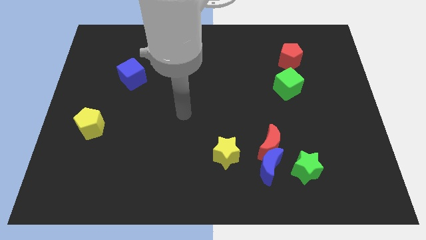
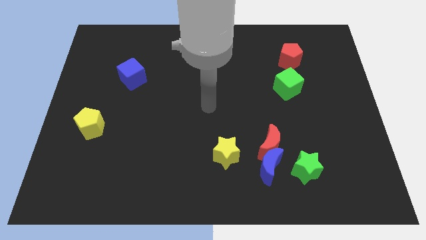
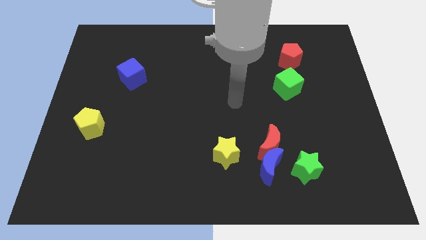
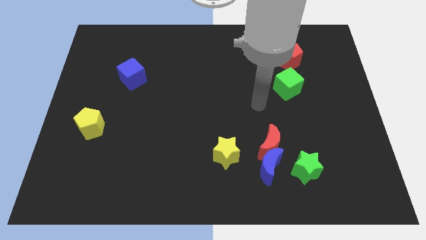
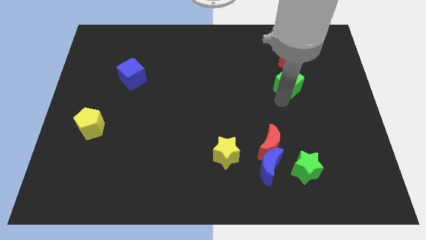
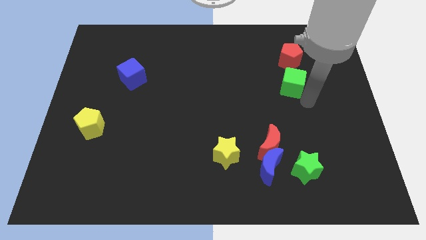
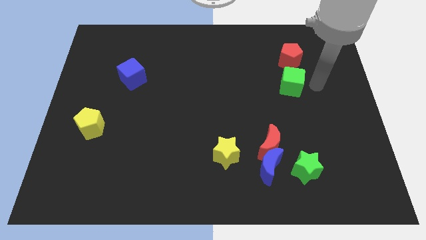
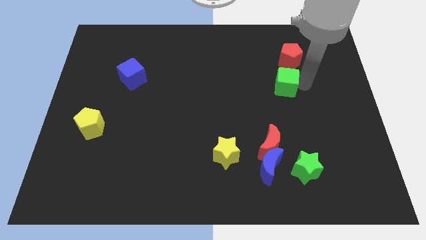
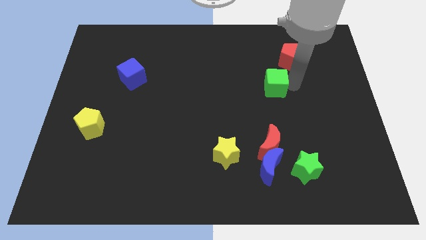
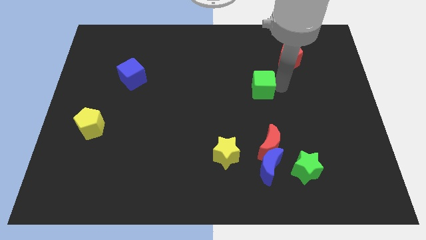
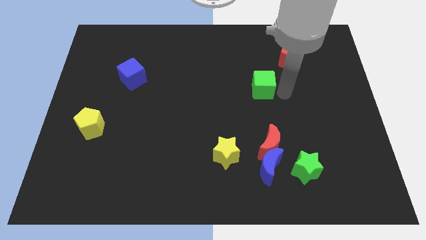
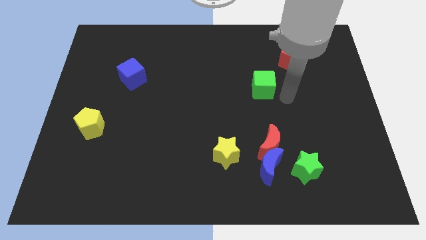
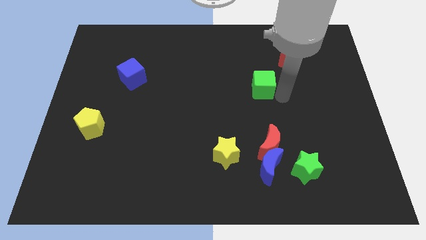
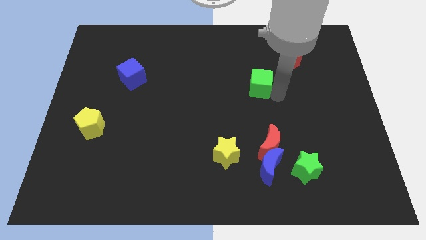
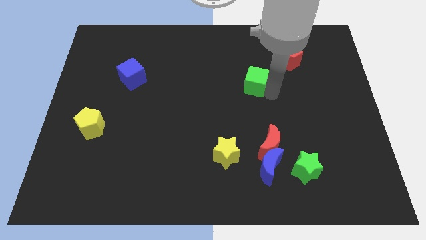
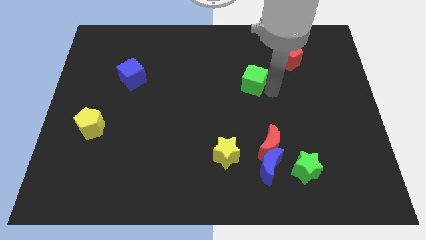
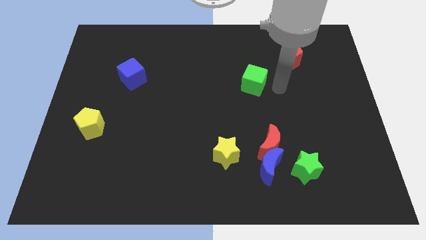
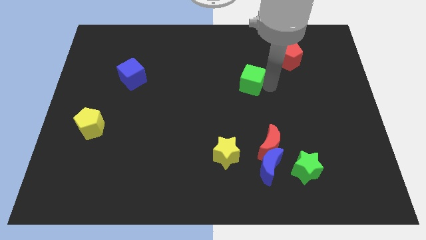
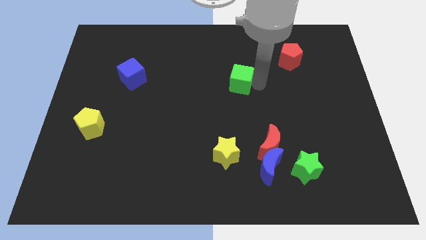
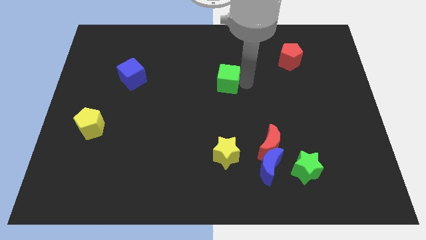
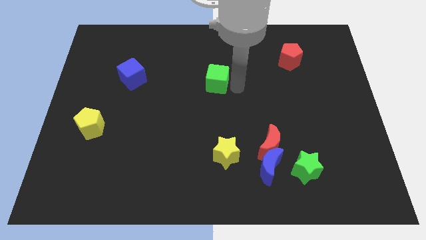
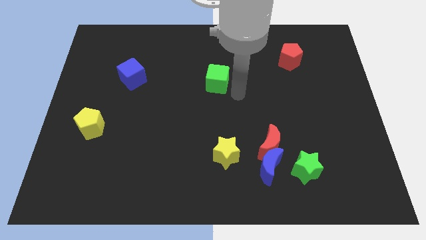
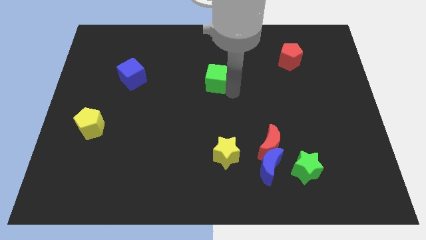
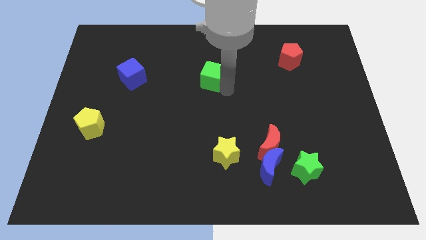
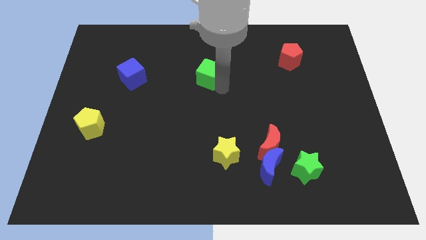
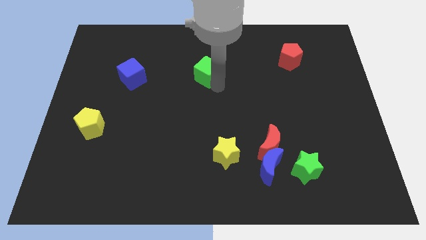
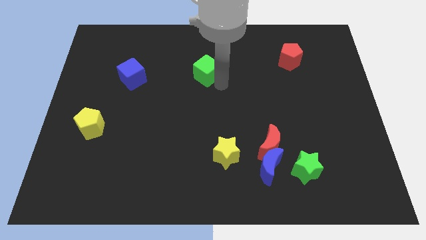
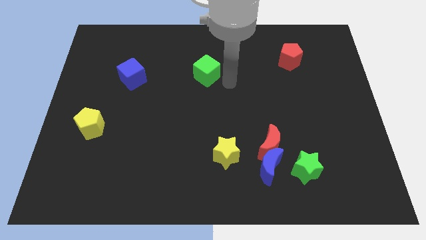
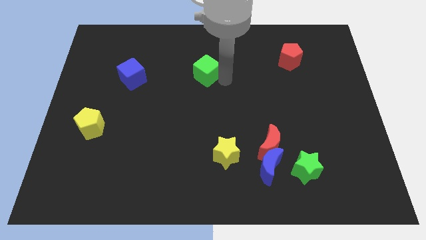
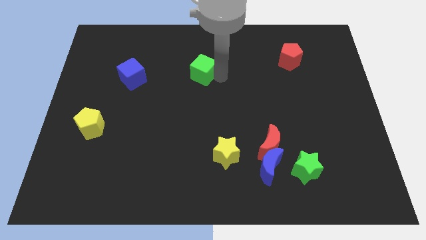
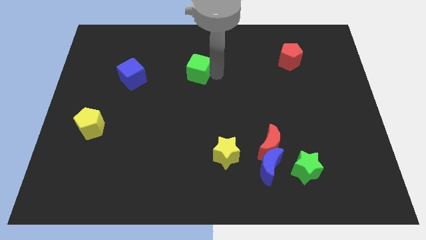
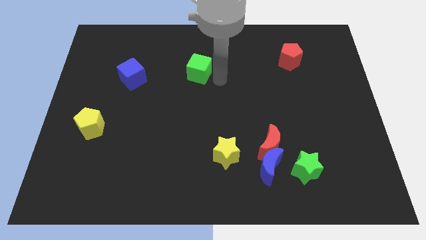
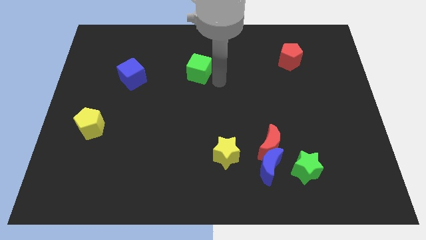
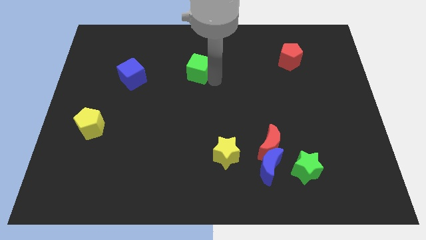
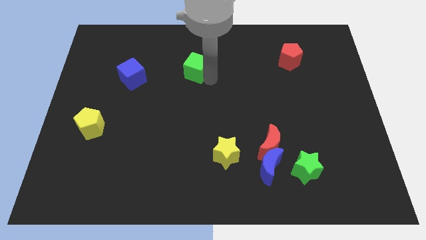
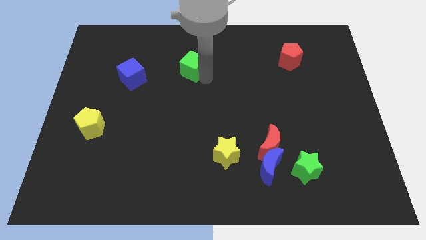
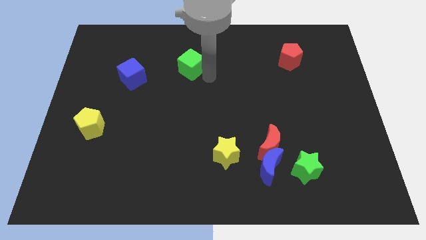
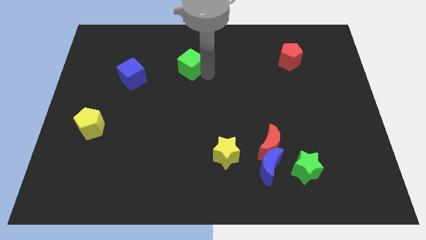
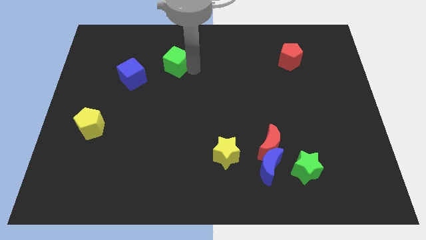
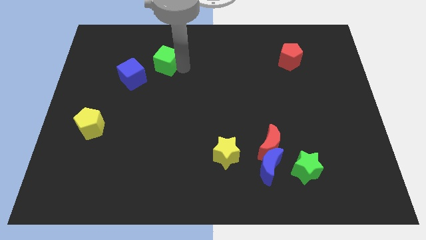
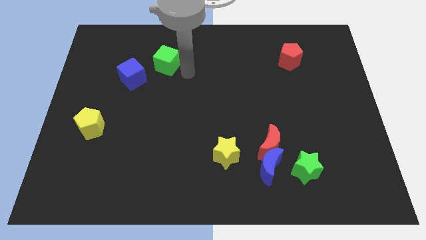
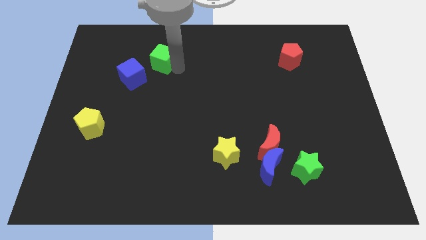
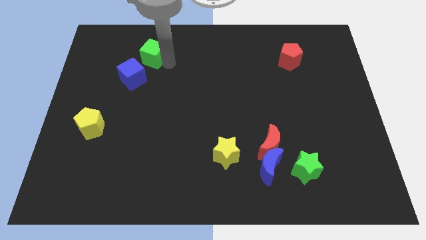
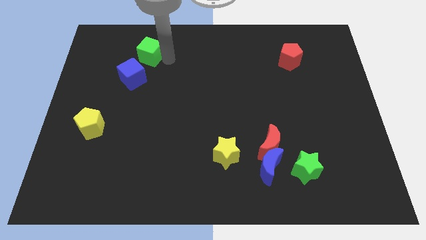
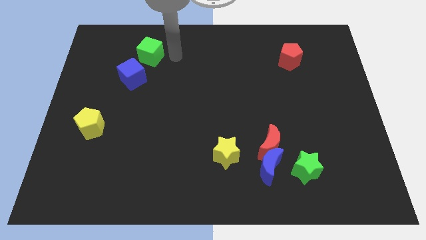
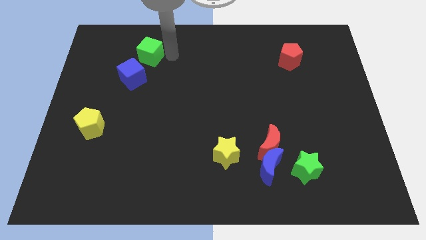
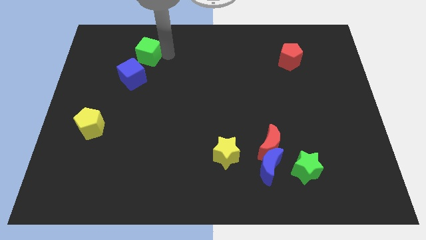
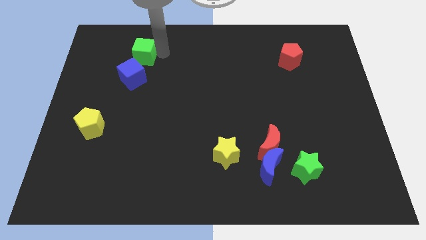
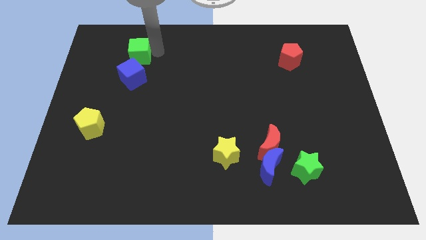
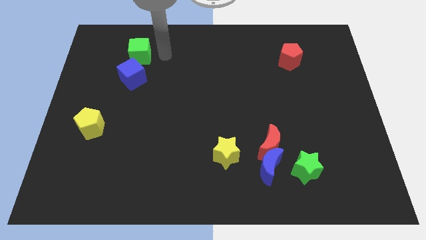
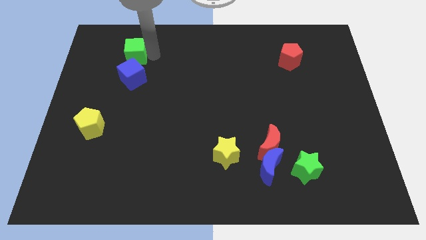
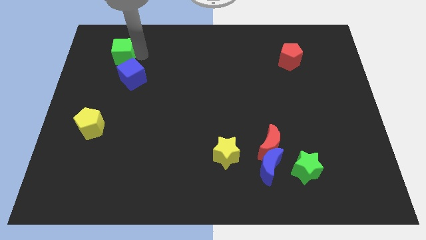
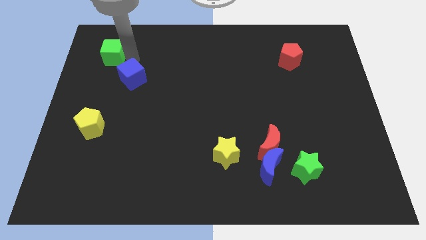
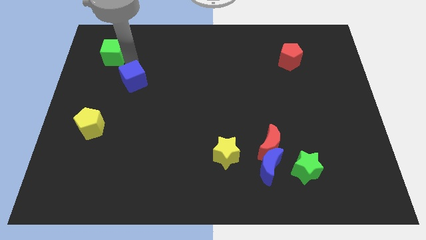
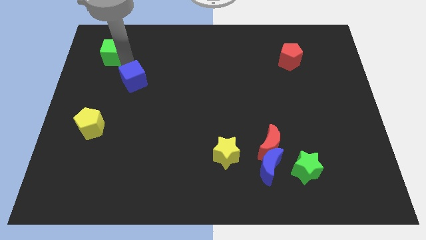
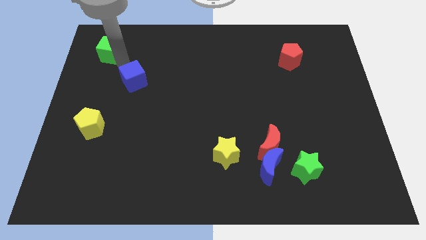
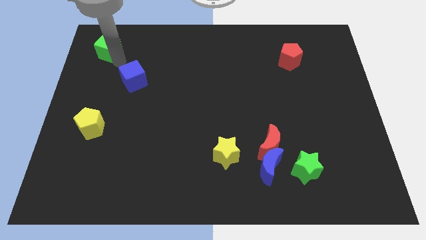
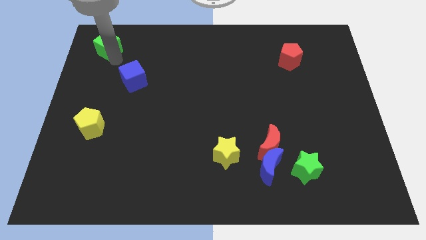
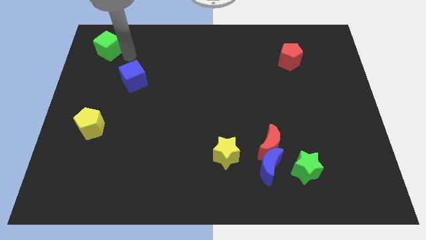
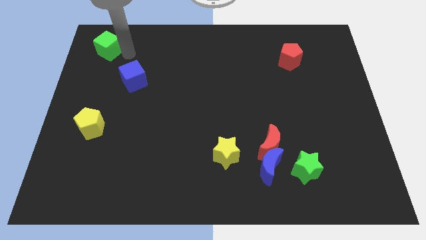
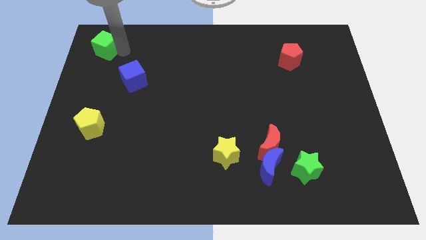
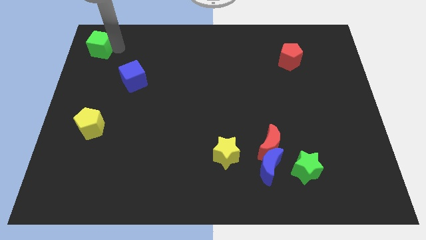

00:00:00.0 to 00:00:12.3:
move the green cube to the top left
